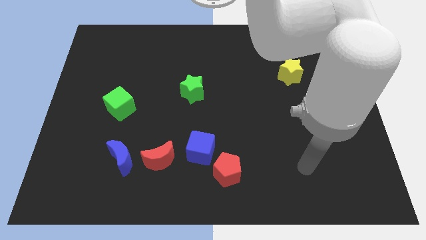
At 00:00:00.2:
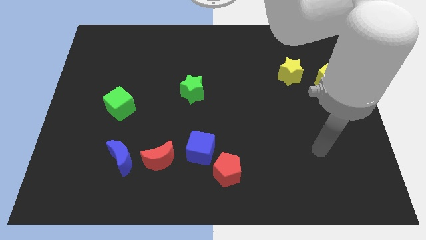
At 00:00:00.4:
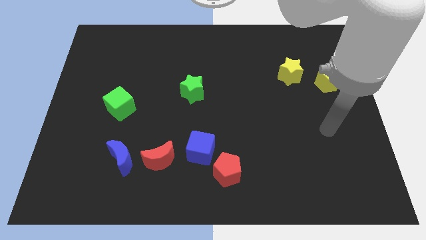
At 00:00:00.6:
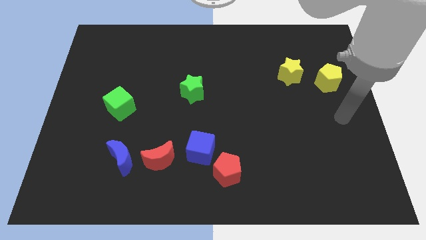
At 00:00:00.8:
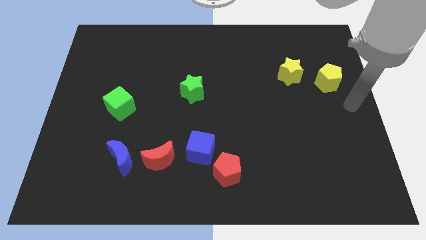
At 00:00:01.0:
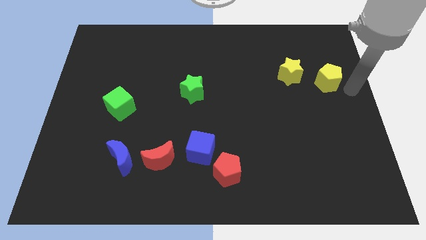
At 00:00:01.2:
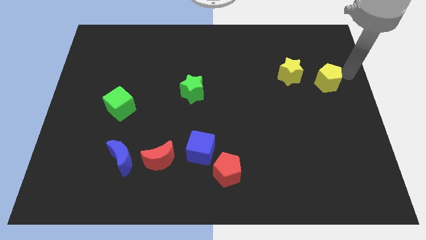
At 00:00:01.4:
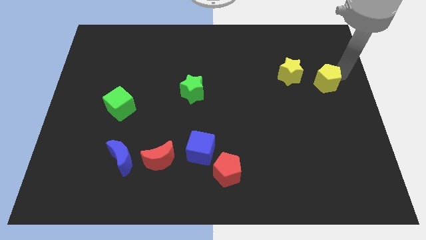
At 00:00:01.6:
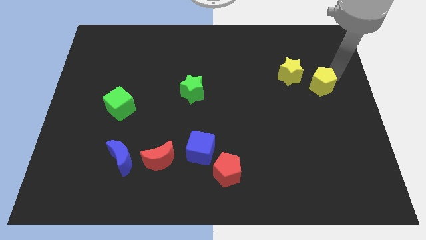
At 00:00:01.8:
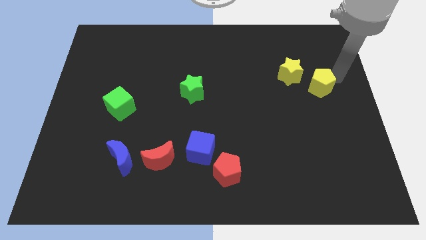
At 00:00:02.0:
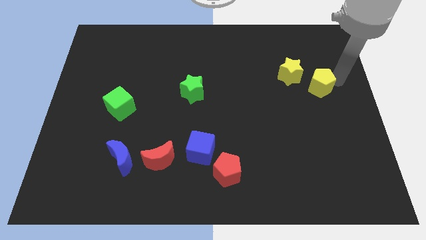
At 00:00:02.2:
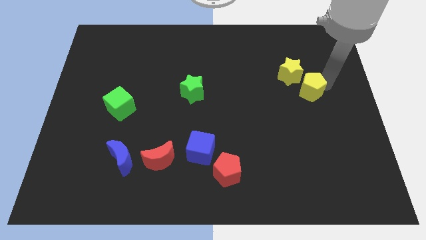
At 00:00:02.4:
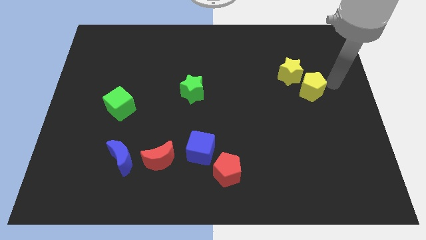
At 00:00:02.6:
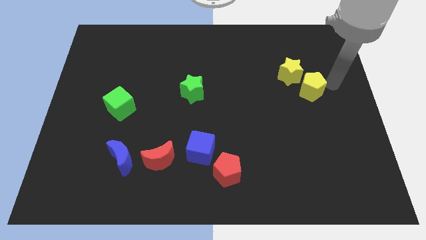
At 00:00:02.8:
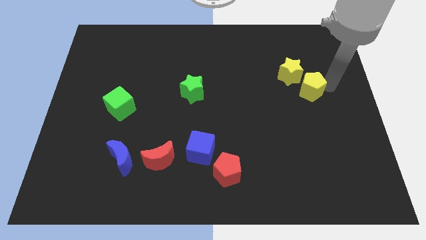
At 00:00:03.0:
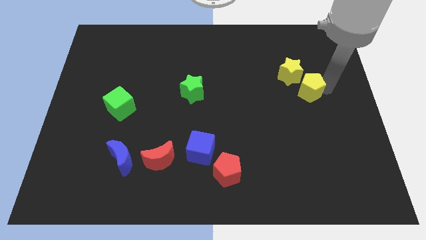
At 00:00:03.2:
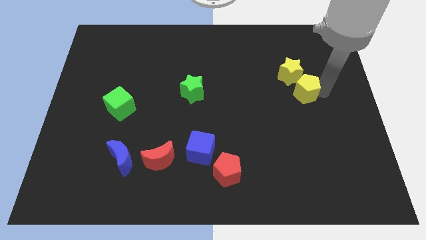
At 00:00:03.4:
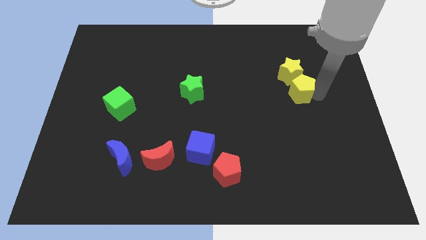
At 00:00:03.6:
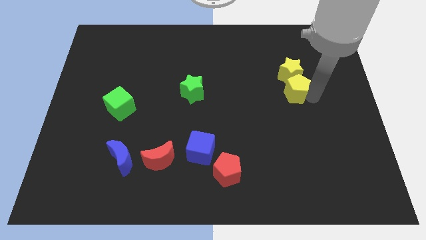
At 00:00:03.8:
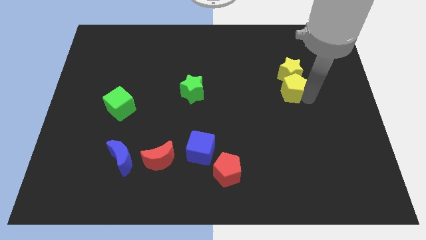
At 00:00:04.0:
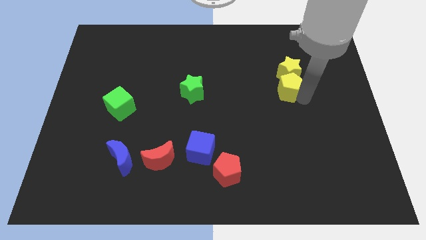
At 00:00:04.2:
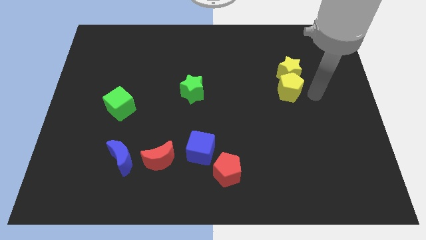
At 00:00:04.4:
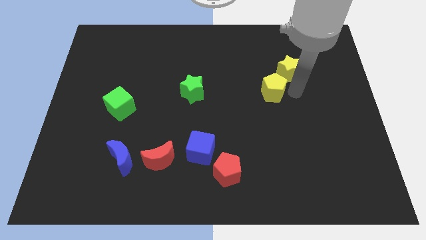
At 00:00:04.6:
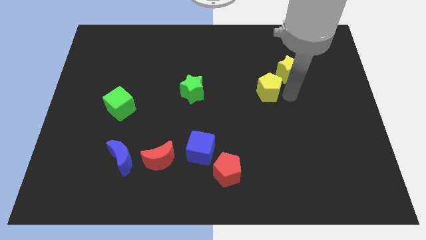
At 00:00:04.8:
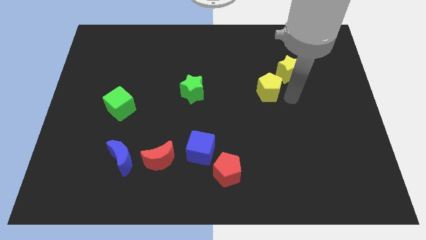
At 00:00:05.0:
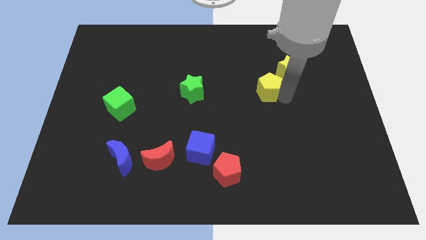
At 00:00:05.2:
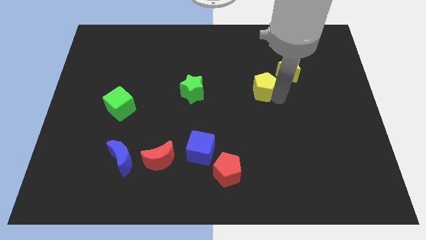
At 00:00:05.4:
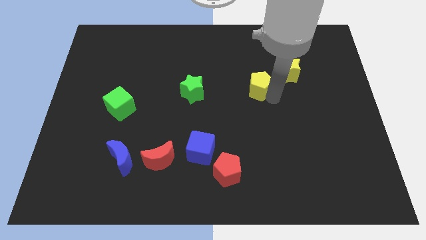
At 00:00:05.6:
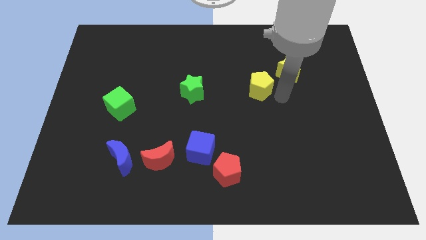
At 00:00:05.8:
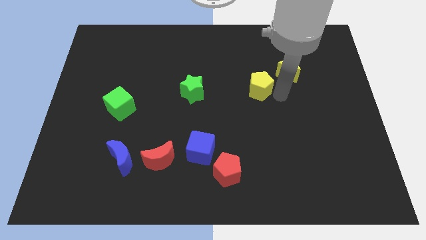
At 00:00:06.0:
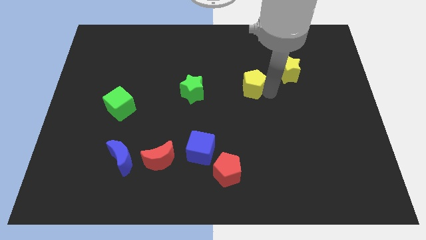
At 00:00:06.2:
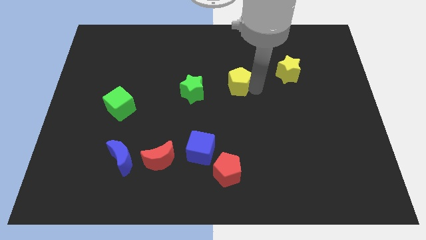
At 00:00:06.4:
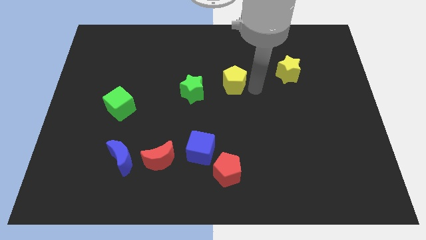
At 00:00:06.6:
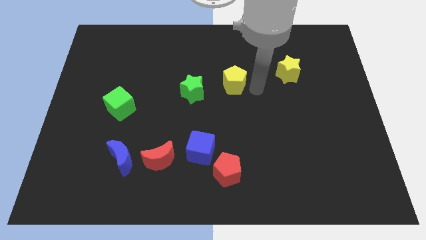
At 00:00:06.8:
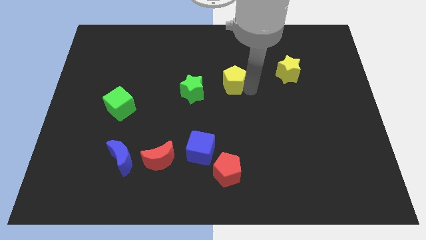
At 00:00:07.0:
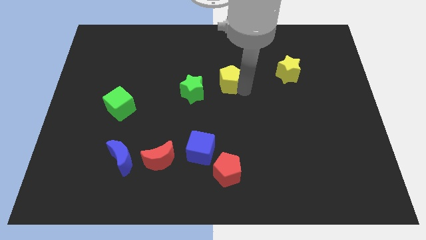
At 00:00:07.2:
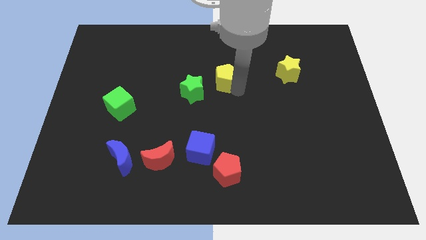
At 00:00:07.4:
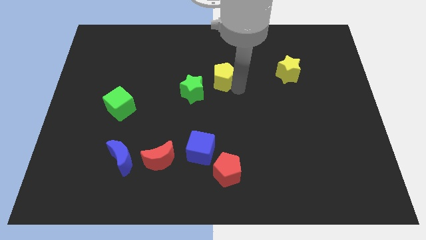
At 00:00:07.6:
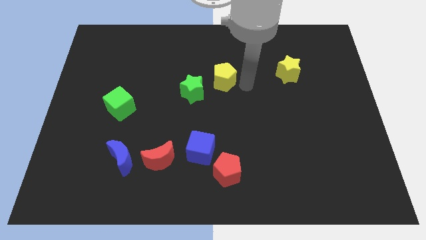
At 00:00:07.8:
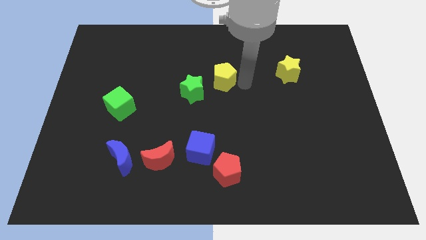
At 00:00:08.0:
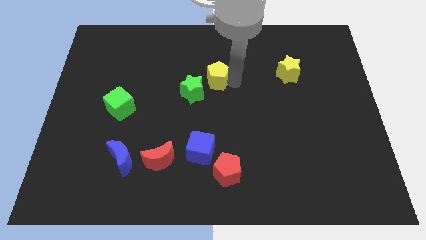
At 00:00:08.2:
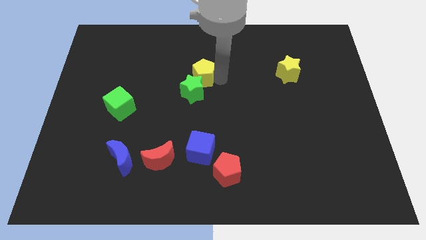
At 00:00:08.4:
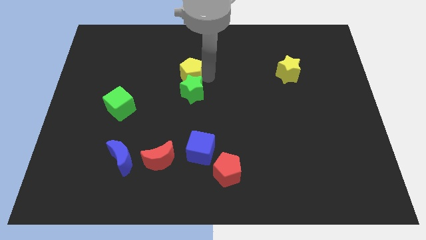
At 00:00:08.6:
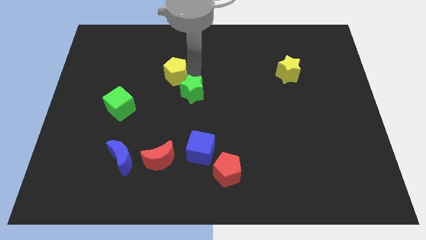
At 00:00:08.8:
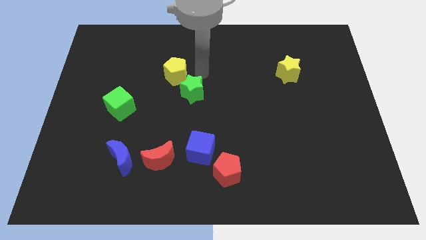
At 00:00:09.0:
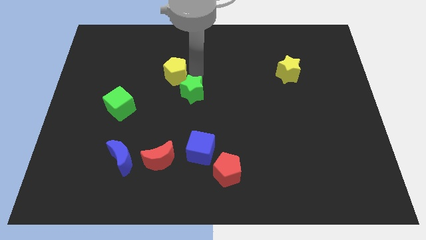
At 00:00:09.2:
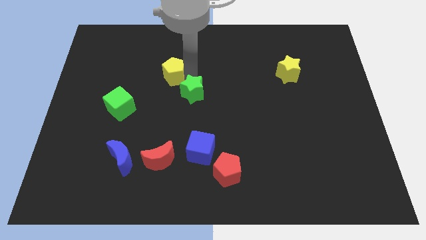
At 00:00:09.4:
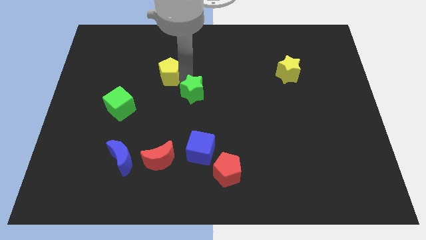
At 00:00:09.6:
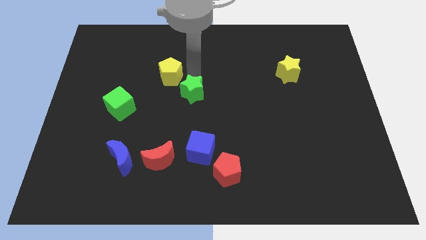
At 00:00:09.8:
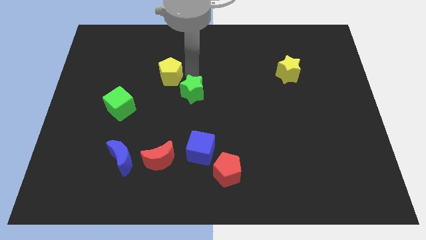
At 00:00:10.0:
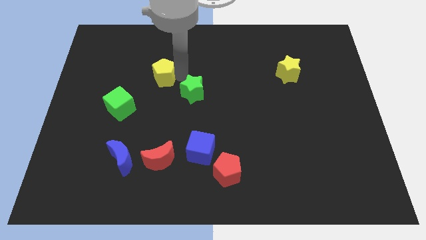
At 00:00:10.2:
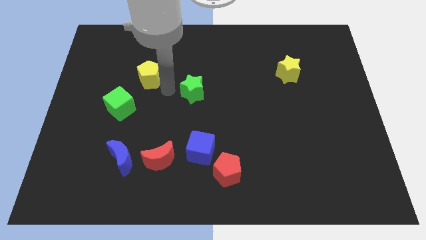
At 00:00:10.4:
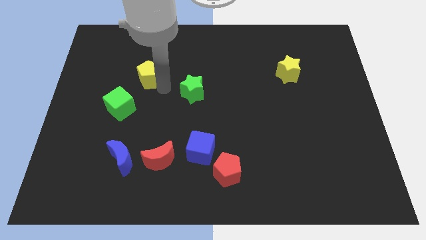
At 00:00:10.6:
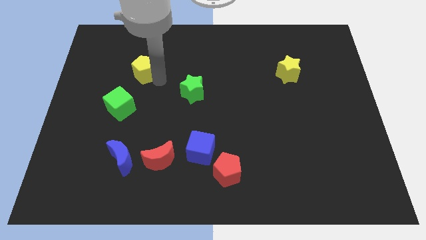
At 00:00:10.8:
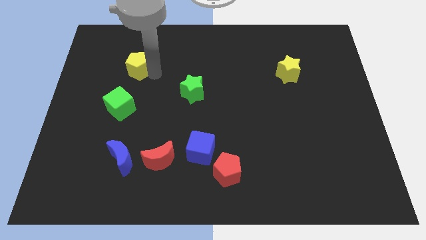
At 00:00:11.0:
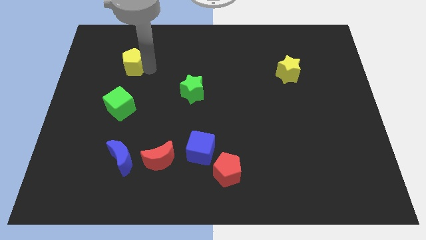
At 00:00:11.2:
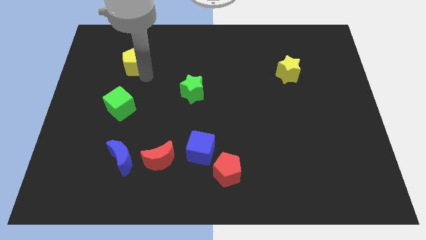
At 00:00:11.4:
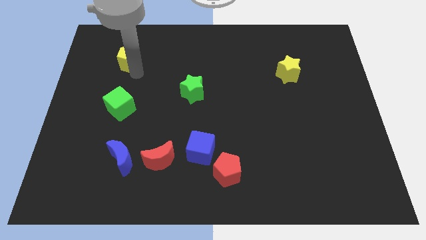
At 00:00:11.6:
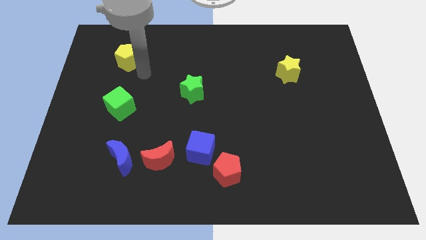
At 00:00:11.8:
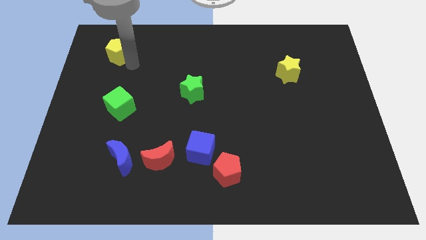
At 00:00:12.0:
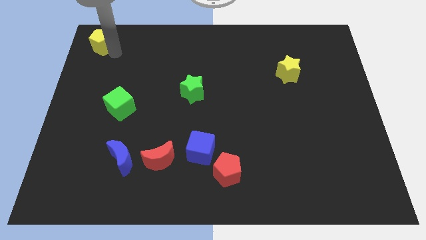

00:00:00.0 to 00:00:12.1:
slide the yellow pentagon to the top left

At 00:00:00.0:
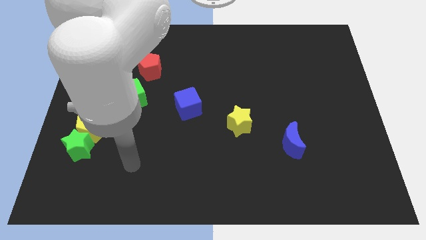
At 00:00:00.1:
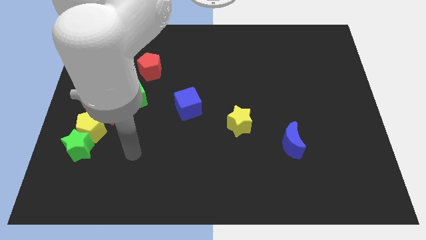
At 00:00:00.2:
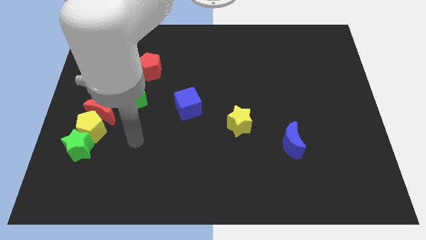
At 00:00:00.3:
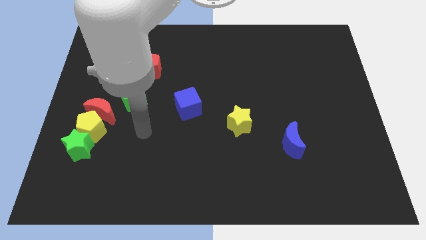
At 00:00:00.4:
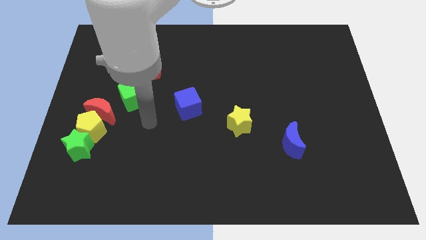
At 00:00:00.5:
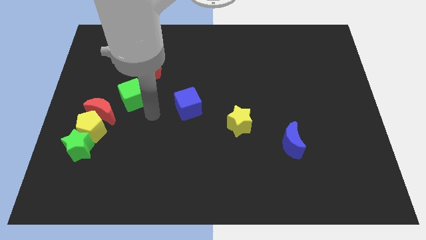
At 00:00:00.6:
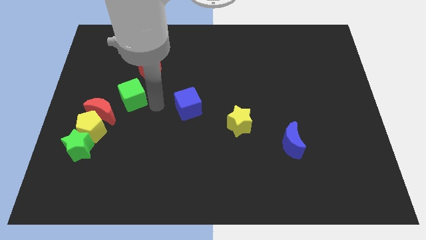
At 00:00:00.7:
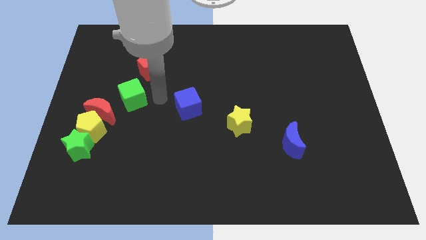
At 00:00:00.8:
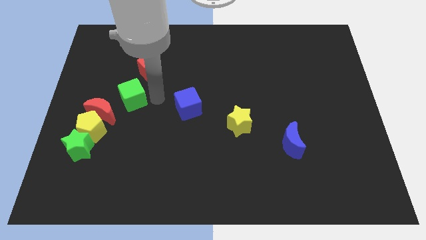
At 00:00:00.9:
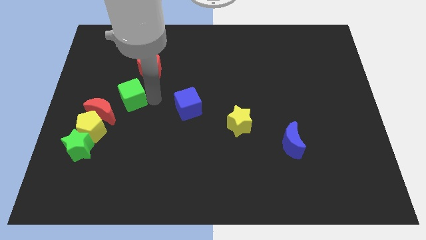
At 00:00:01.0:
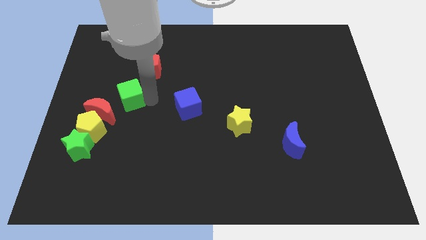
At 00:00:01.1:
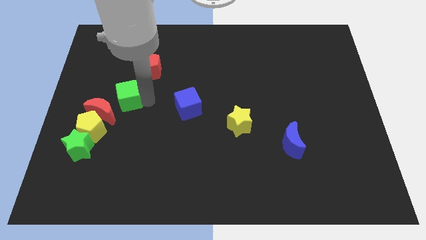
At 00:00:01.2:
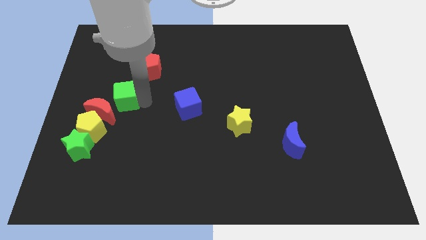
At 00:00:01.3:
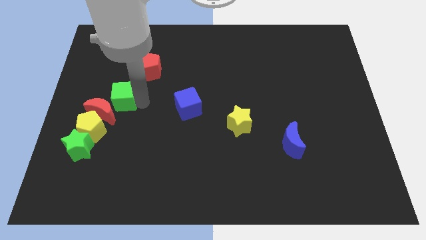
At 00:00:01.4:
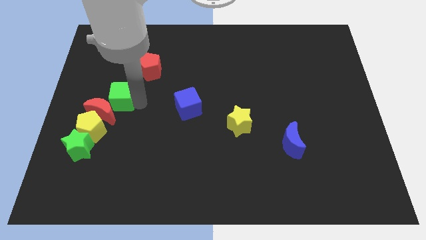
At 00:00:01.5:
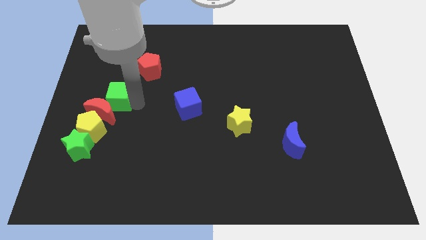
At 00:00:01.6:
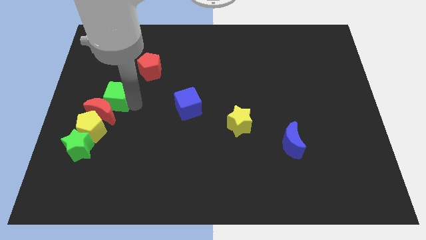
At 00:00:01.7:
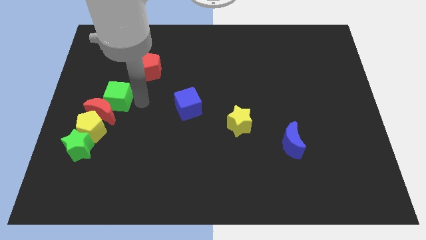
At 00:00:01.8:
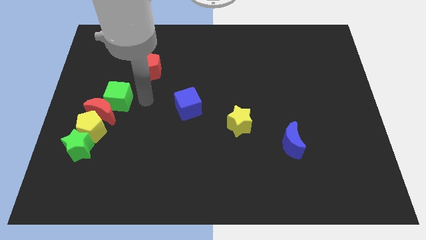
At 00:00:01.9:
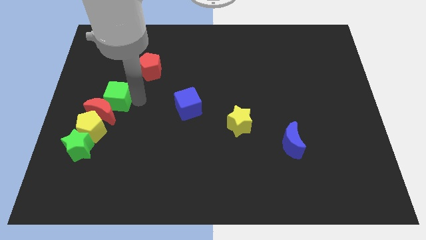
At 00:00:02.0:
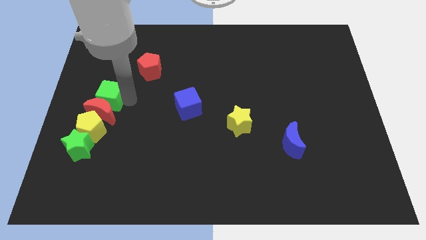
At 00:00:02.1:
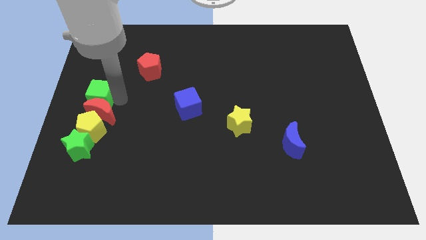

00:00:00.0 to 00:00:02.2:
move the green cube to the left side of the board
